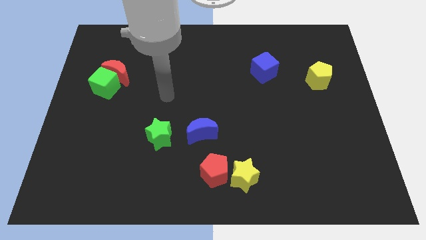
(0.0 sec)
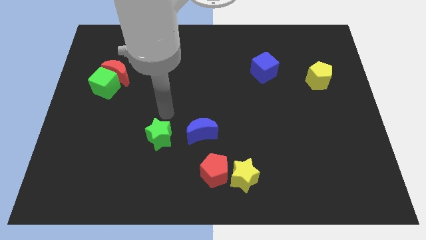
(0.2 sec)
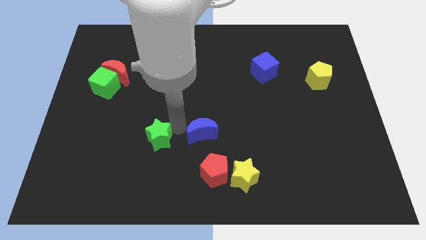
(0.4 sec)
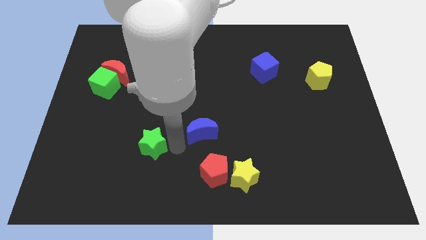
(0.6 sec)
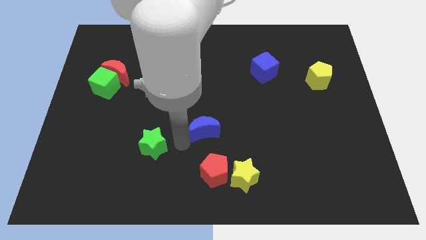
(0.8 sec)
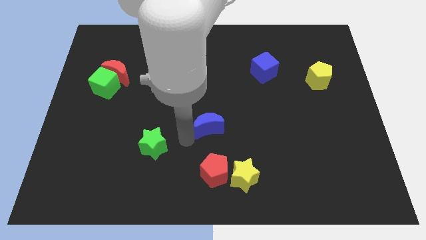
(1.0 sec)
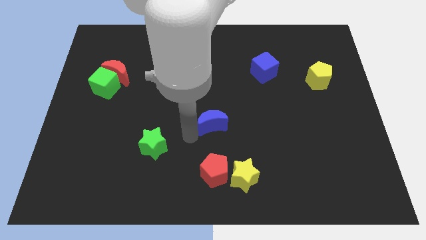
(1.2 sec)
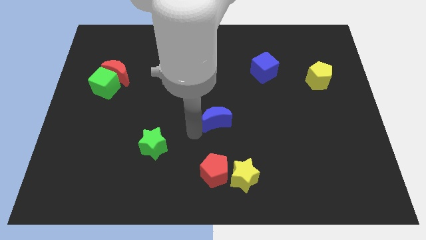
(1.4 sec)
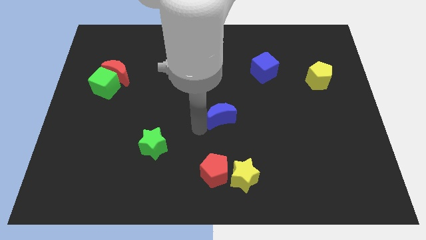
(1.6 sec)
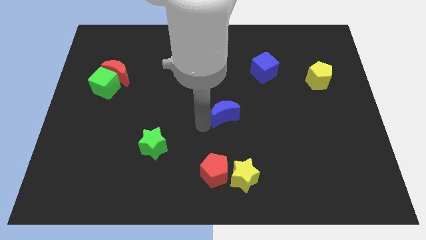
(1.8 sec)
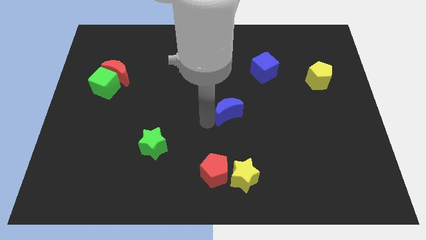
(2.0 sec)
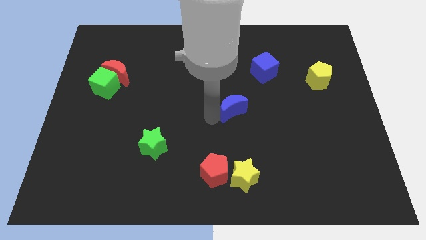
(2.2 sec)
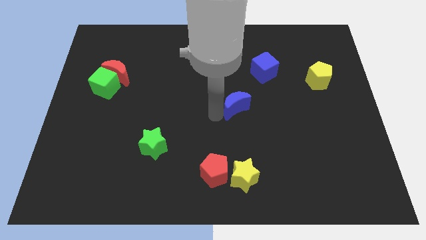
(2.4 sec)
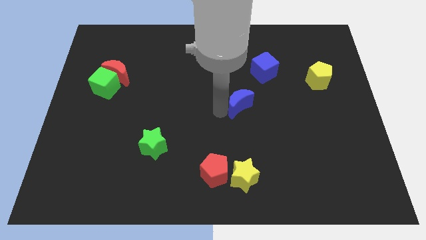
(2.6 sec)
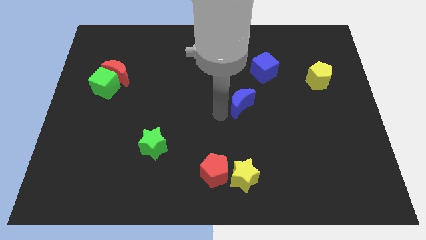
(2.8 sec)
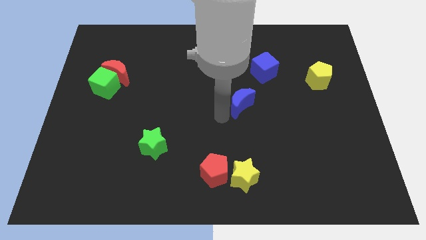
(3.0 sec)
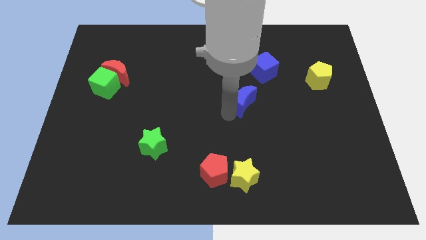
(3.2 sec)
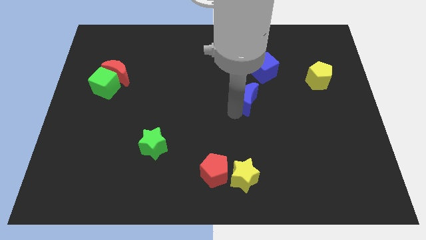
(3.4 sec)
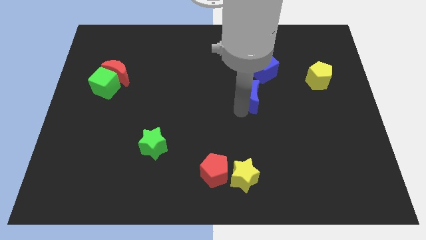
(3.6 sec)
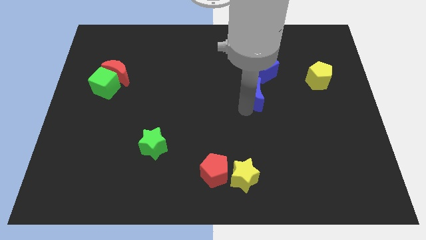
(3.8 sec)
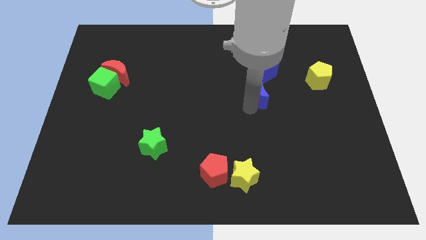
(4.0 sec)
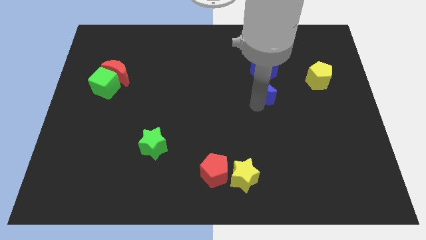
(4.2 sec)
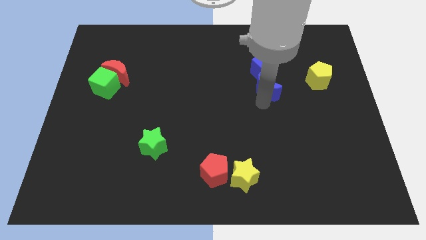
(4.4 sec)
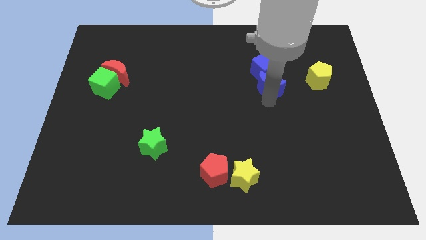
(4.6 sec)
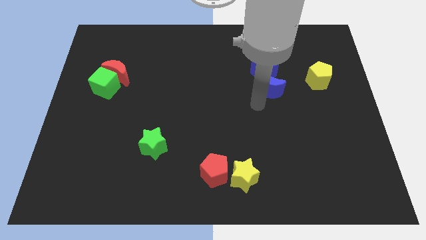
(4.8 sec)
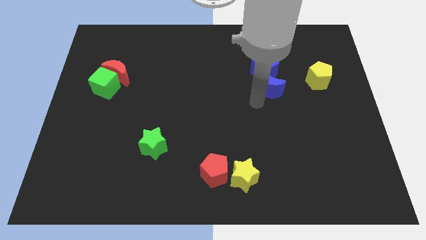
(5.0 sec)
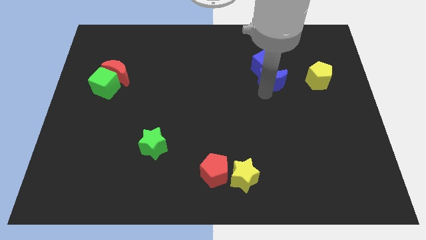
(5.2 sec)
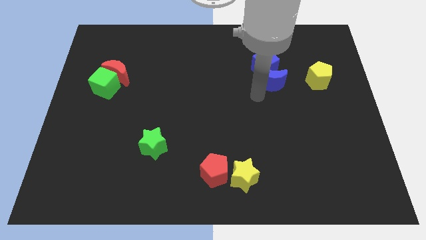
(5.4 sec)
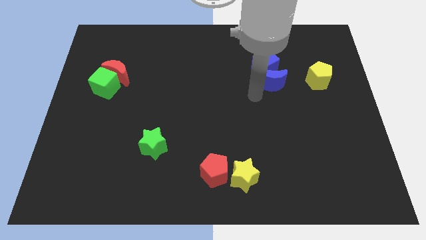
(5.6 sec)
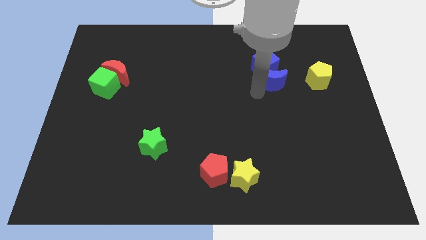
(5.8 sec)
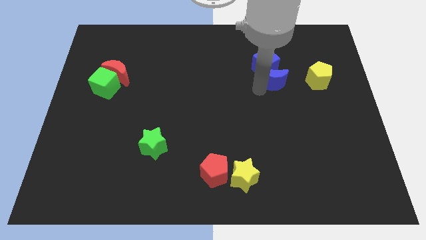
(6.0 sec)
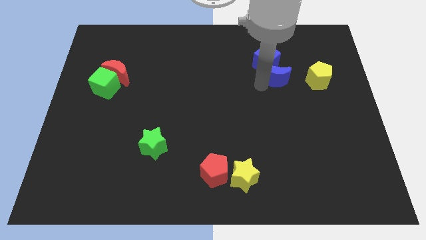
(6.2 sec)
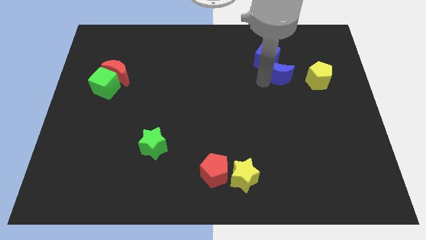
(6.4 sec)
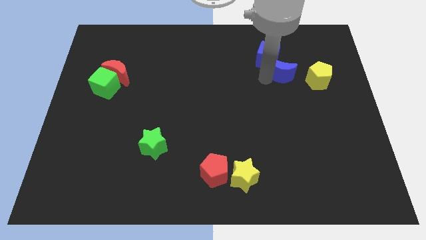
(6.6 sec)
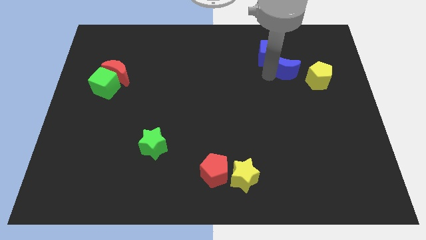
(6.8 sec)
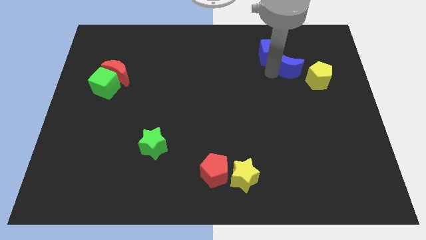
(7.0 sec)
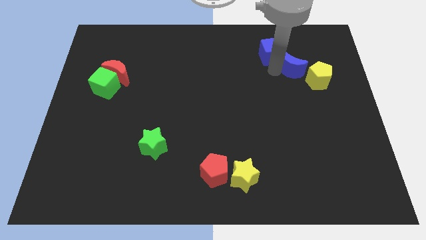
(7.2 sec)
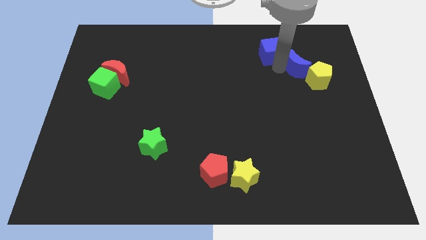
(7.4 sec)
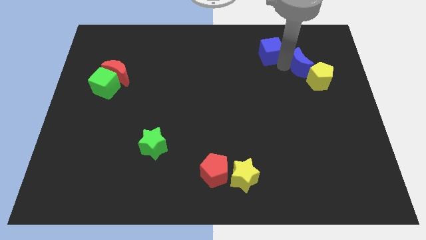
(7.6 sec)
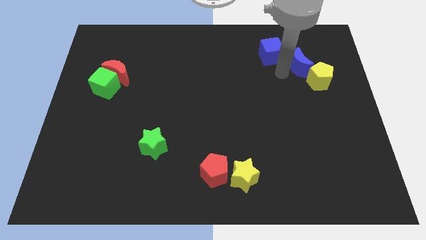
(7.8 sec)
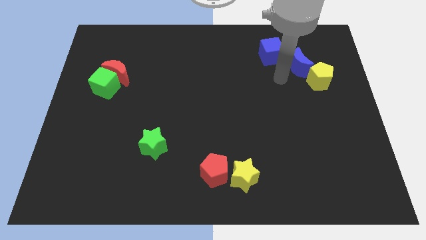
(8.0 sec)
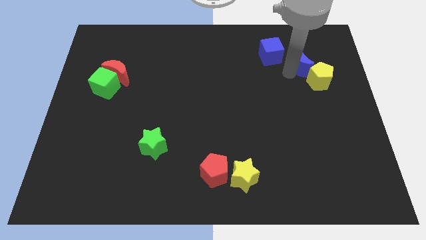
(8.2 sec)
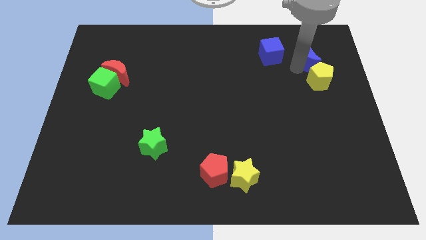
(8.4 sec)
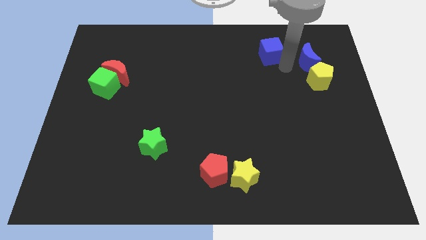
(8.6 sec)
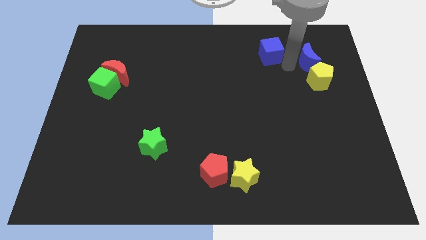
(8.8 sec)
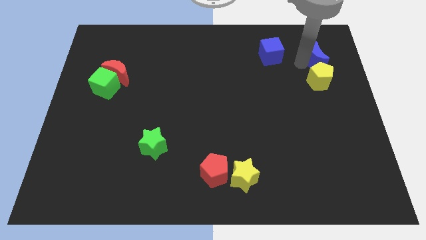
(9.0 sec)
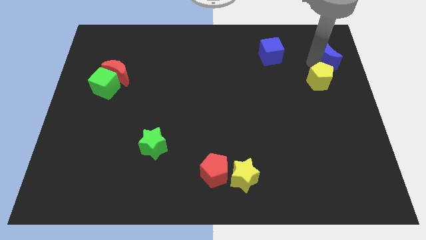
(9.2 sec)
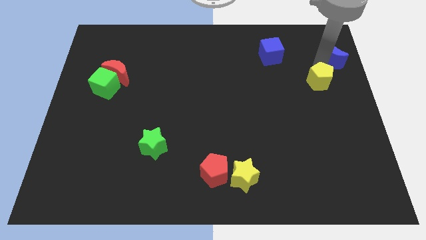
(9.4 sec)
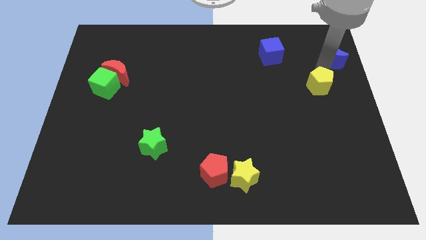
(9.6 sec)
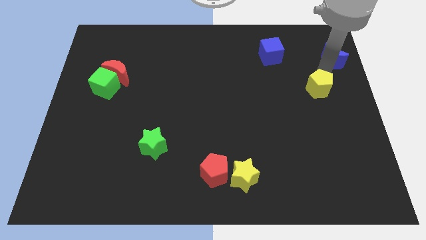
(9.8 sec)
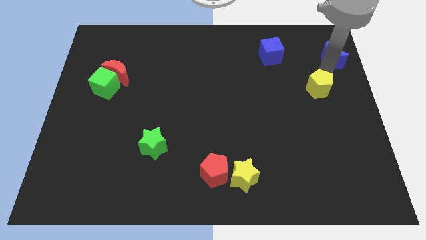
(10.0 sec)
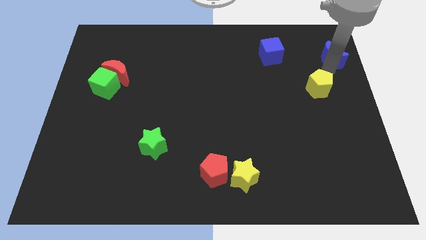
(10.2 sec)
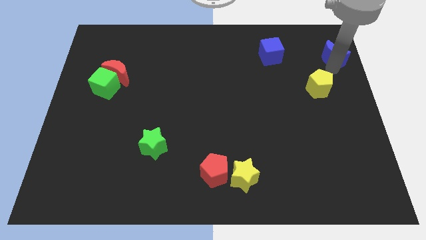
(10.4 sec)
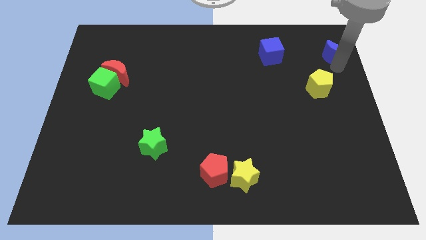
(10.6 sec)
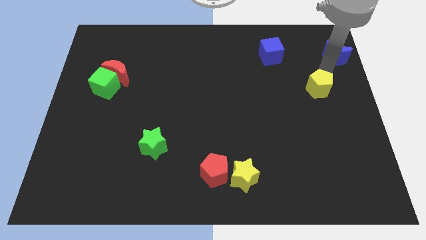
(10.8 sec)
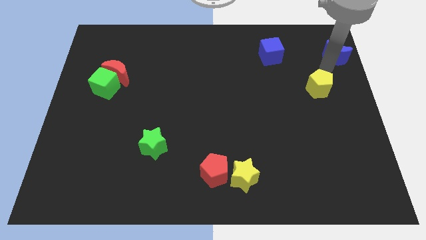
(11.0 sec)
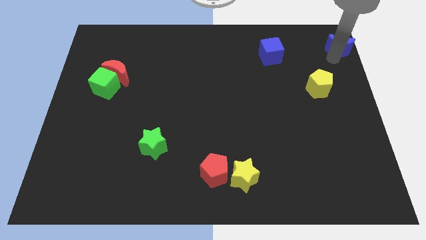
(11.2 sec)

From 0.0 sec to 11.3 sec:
put the blue moon to the top right

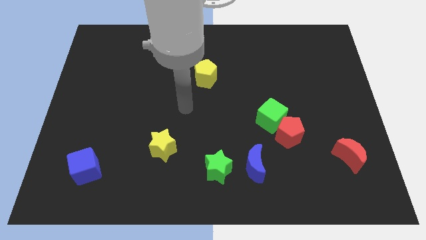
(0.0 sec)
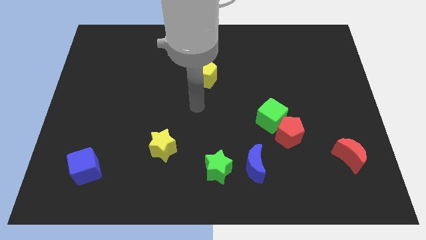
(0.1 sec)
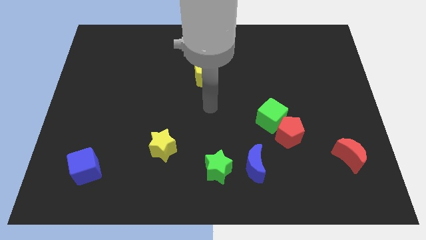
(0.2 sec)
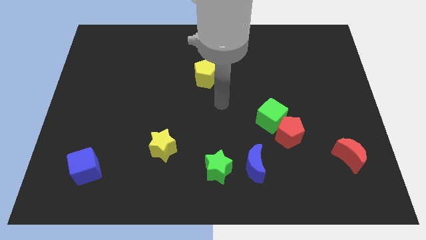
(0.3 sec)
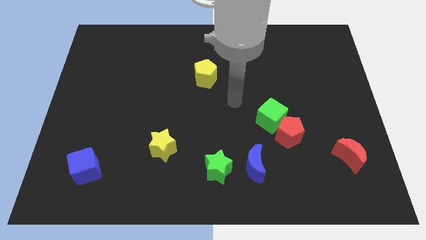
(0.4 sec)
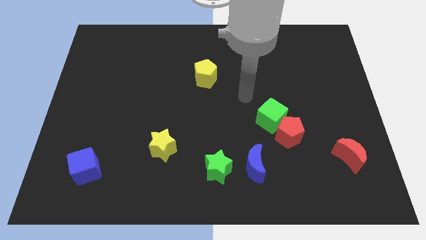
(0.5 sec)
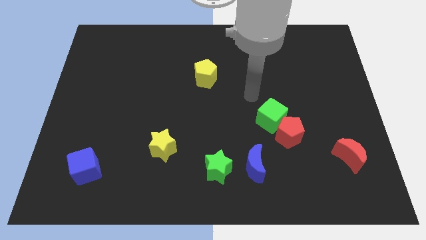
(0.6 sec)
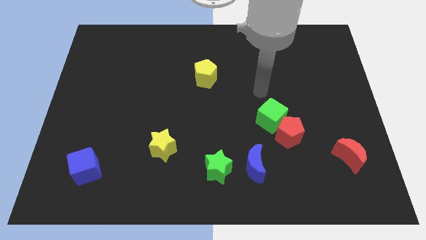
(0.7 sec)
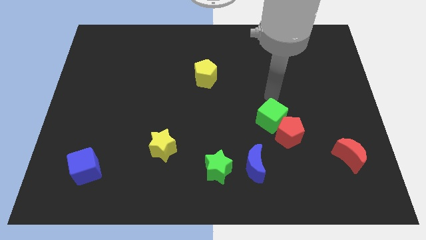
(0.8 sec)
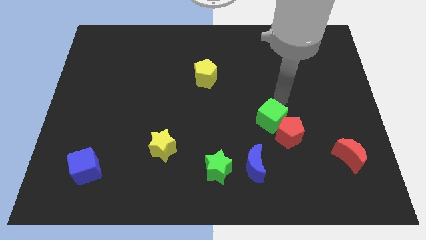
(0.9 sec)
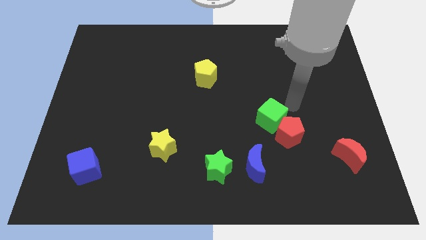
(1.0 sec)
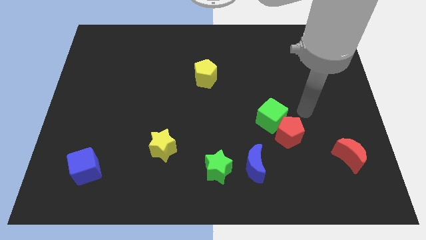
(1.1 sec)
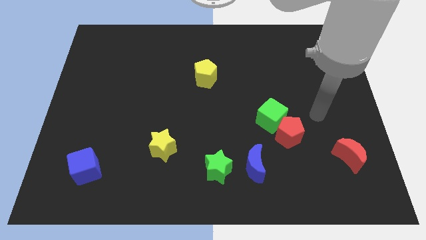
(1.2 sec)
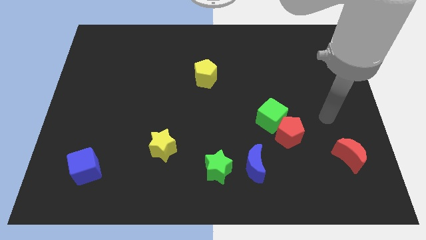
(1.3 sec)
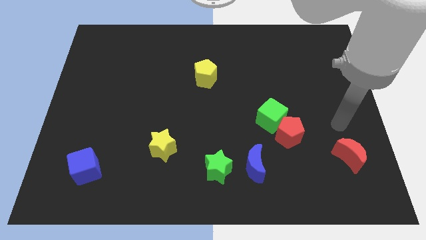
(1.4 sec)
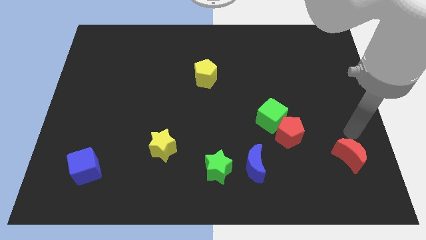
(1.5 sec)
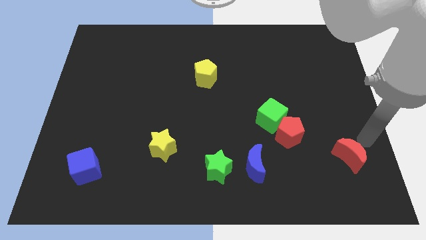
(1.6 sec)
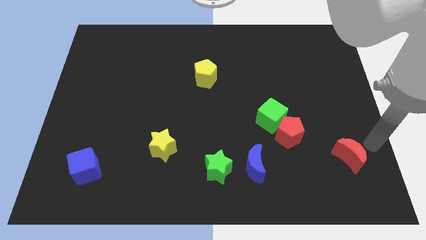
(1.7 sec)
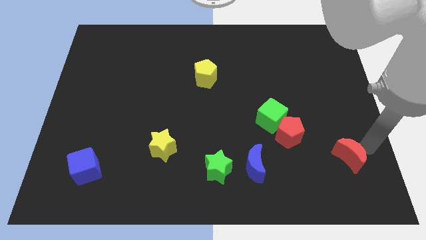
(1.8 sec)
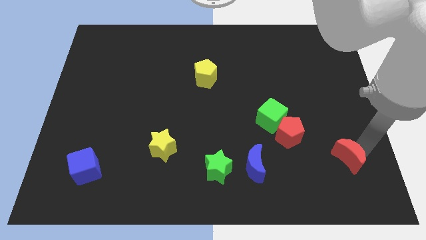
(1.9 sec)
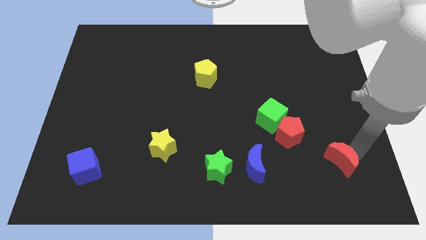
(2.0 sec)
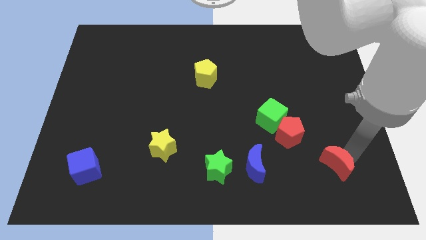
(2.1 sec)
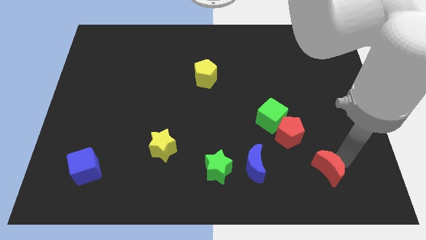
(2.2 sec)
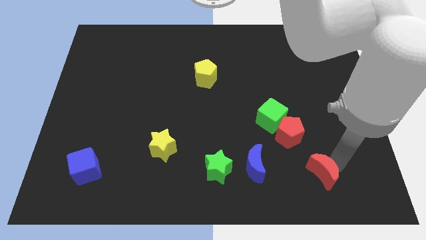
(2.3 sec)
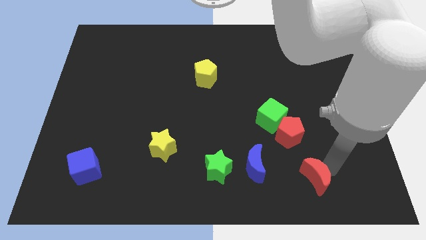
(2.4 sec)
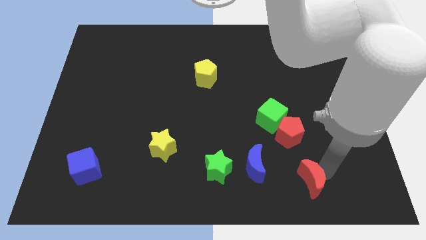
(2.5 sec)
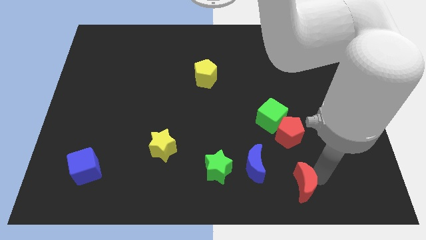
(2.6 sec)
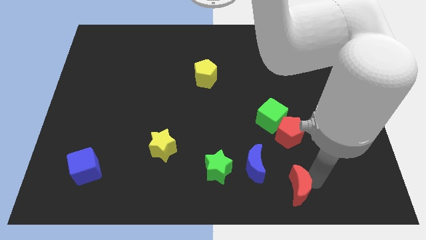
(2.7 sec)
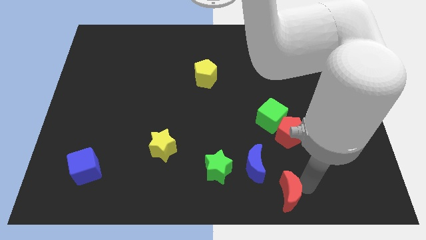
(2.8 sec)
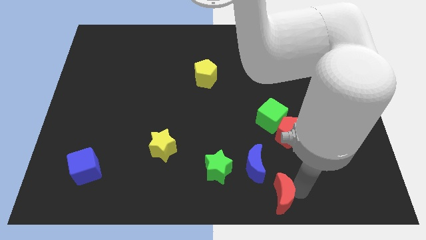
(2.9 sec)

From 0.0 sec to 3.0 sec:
slide the red moon to the bottom
